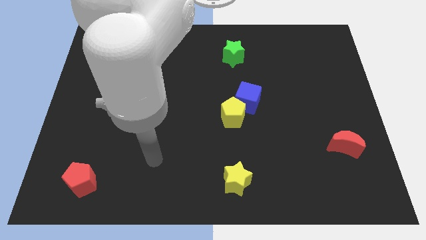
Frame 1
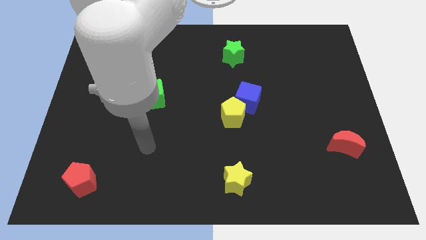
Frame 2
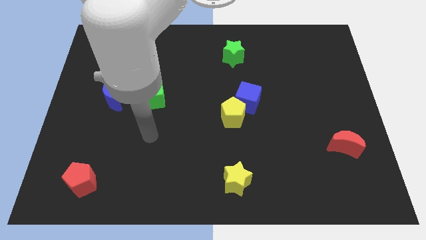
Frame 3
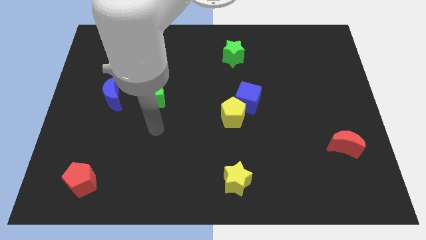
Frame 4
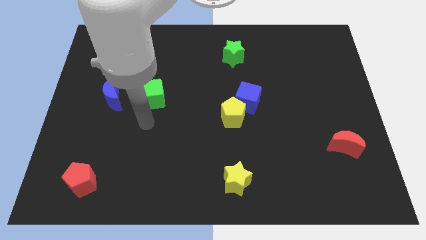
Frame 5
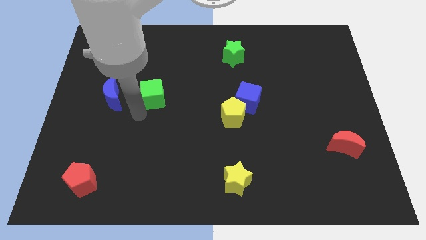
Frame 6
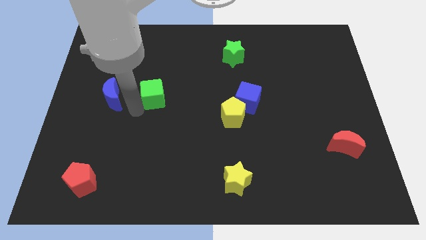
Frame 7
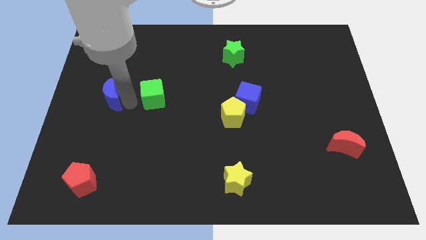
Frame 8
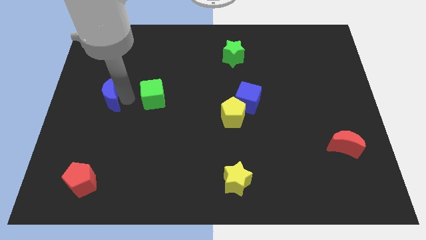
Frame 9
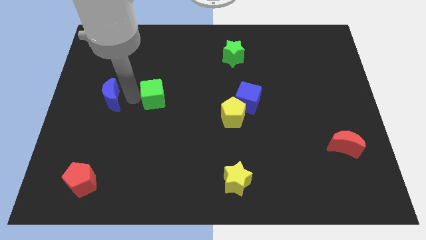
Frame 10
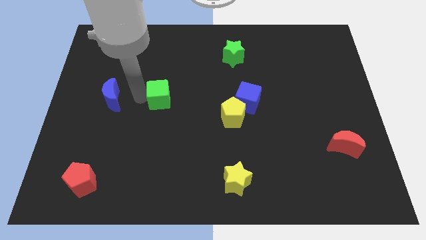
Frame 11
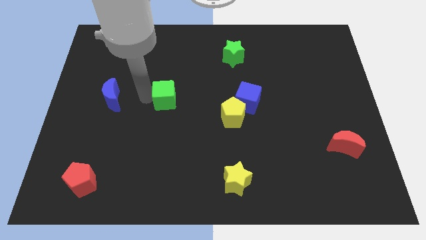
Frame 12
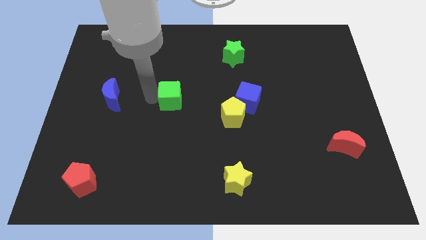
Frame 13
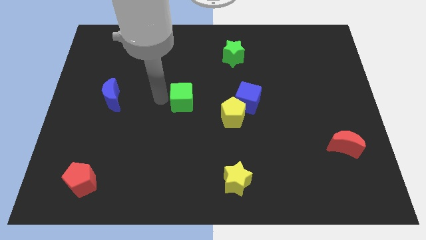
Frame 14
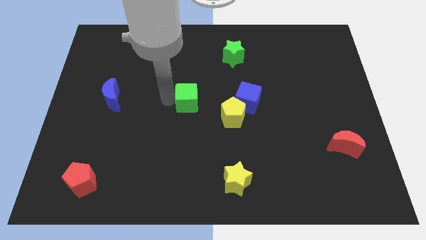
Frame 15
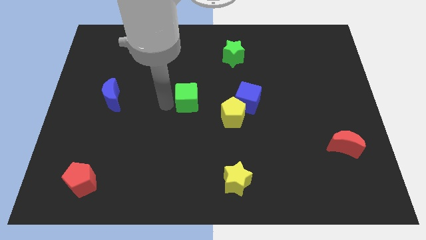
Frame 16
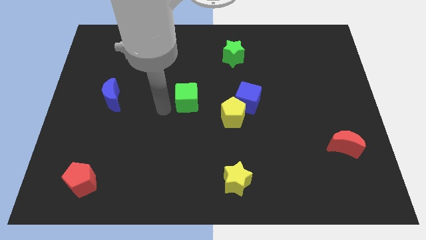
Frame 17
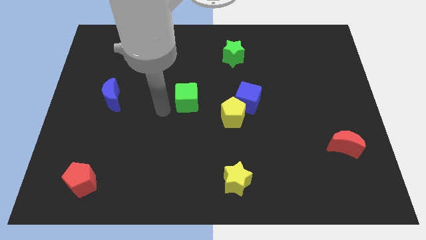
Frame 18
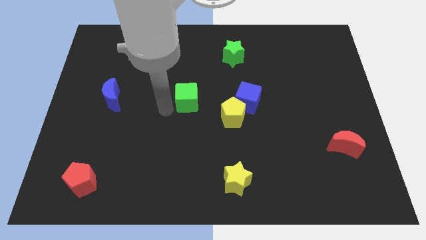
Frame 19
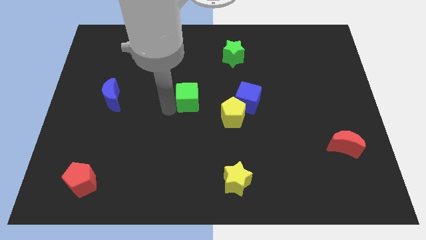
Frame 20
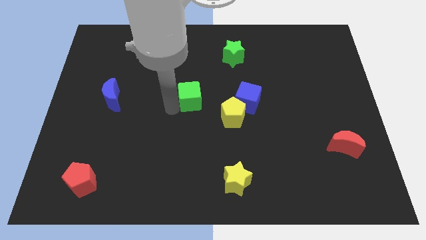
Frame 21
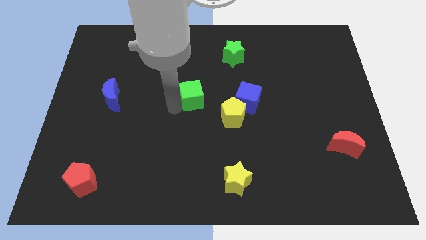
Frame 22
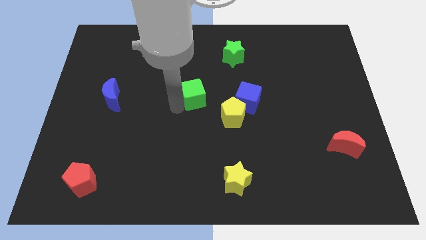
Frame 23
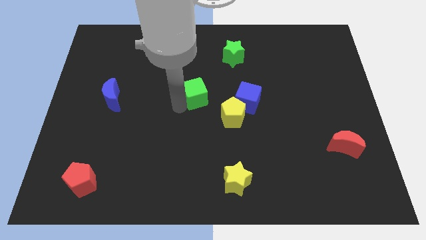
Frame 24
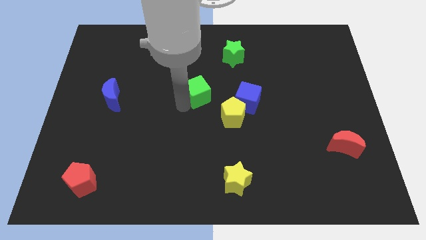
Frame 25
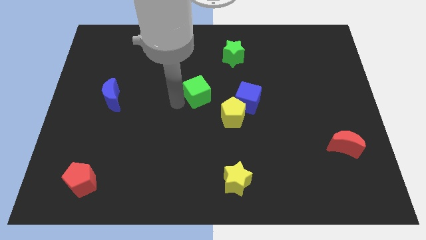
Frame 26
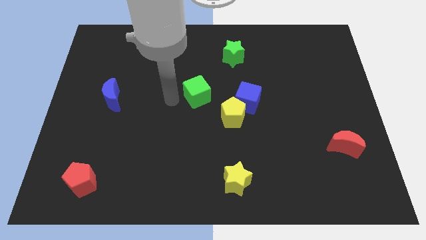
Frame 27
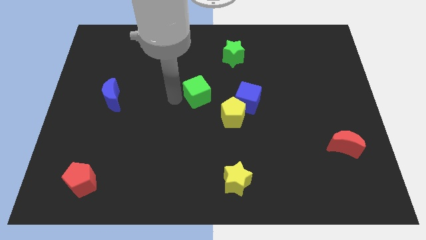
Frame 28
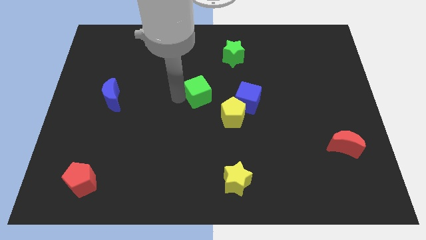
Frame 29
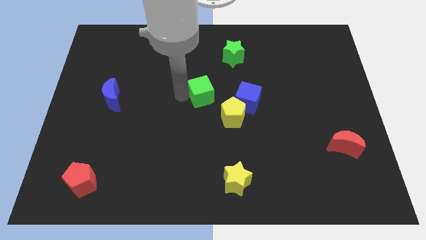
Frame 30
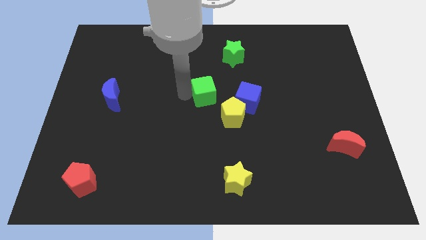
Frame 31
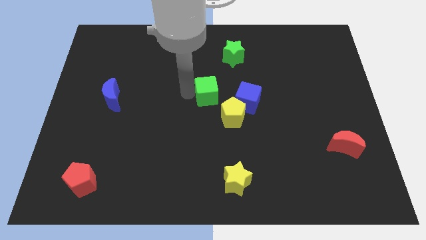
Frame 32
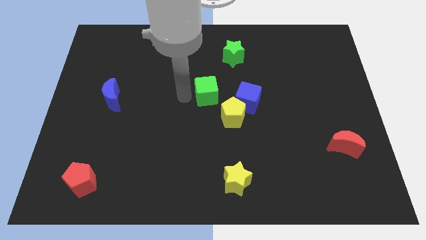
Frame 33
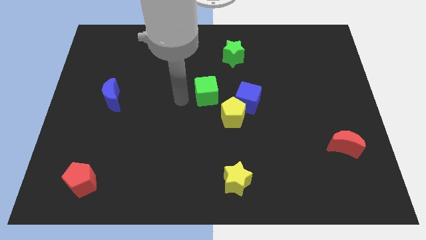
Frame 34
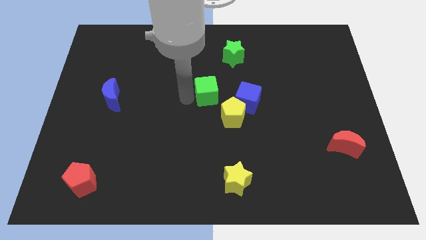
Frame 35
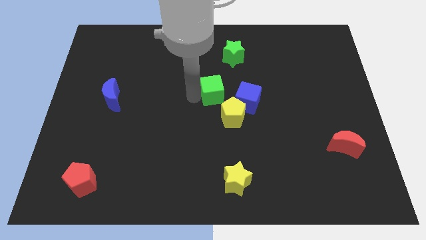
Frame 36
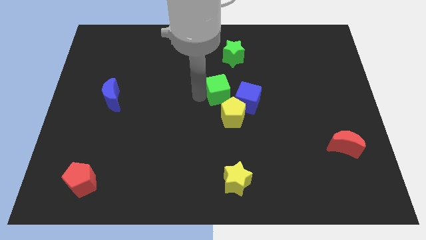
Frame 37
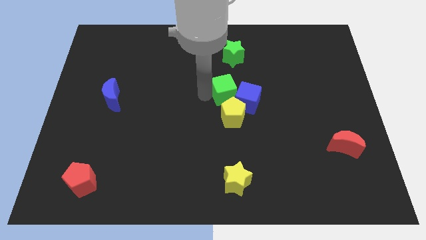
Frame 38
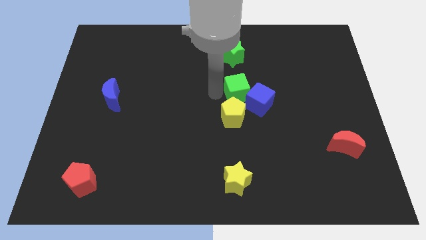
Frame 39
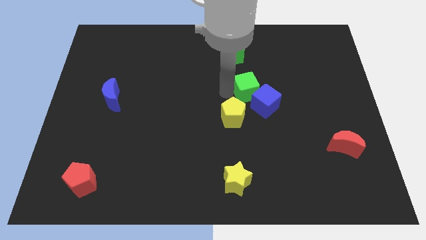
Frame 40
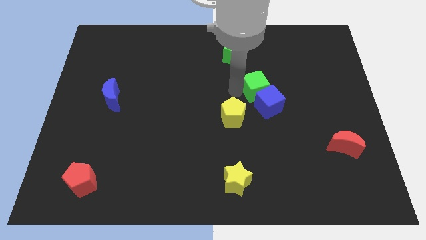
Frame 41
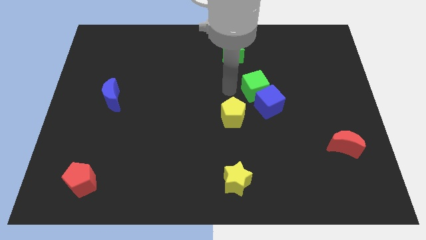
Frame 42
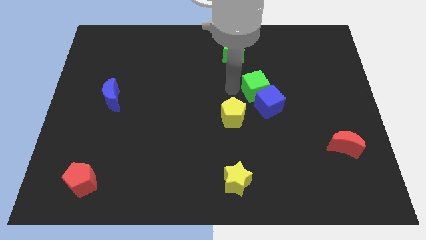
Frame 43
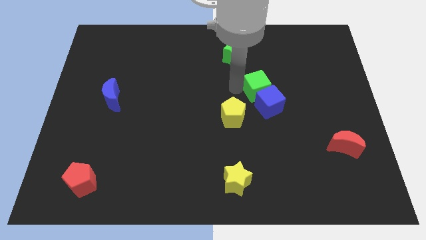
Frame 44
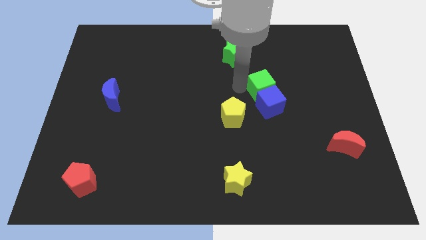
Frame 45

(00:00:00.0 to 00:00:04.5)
move the green cube diagonally up and to the right of the blue cube

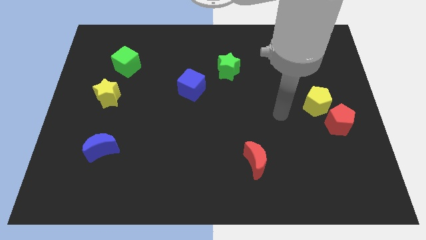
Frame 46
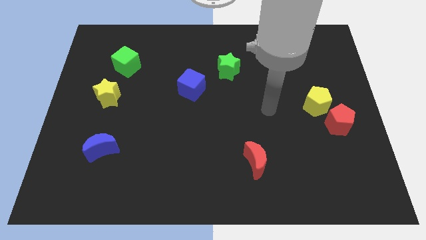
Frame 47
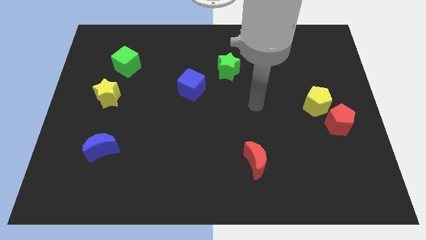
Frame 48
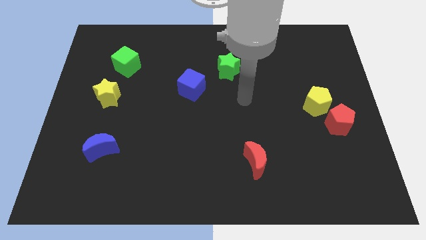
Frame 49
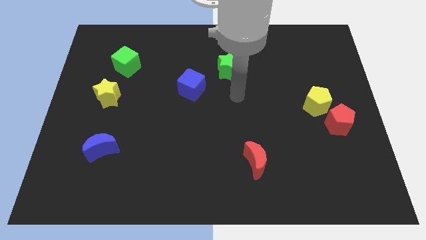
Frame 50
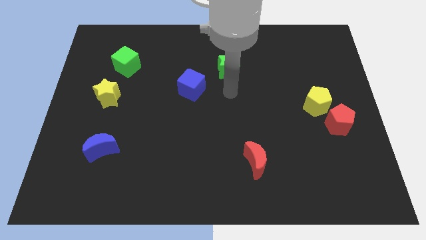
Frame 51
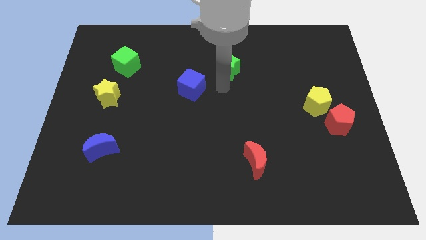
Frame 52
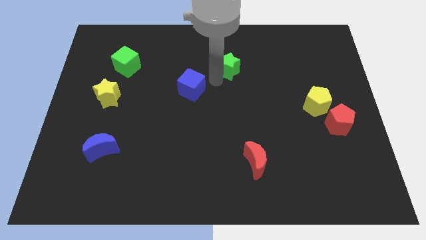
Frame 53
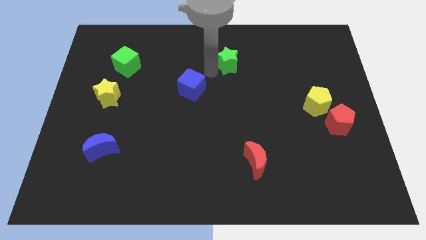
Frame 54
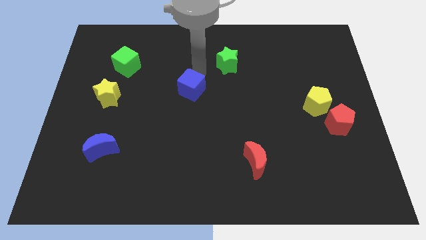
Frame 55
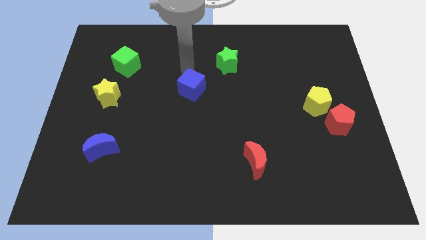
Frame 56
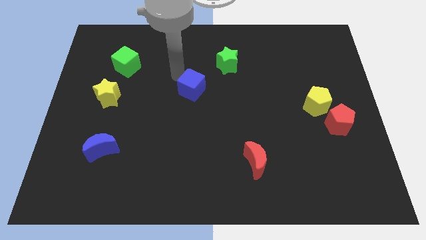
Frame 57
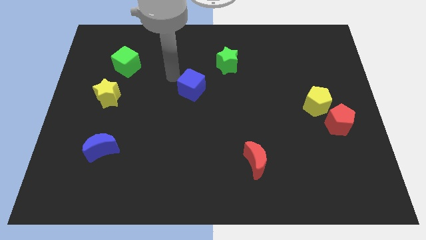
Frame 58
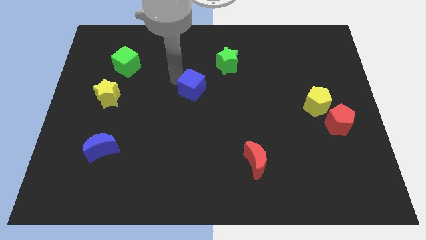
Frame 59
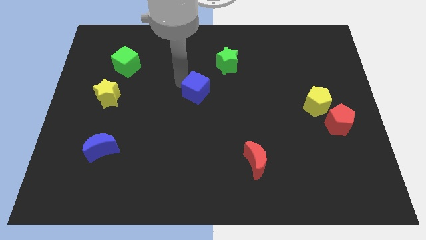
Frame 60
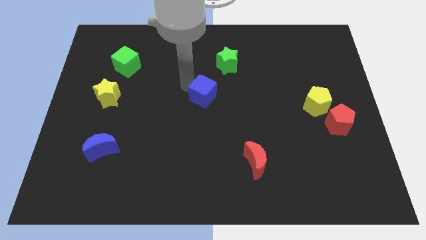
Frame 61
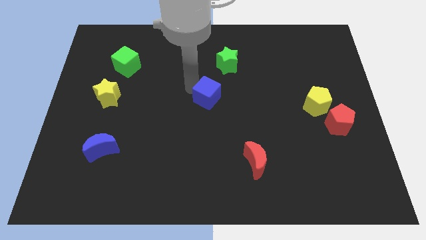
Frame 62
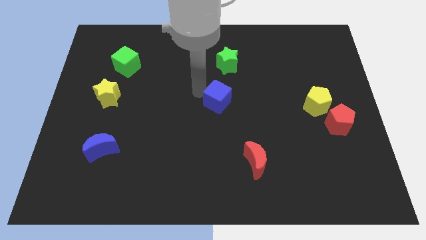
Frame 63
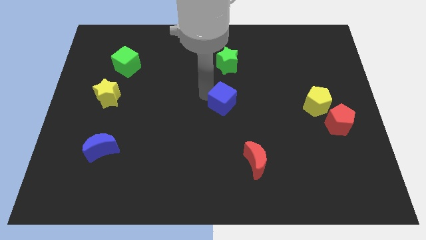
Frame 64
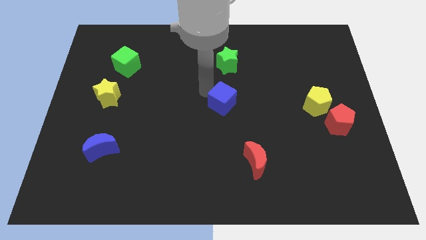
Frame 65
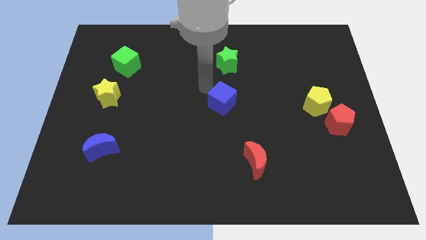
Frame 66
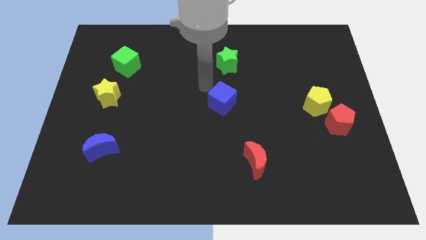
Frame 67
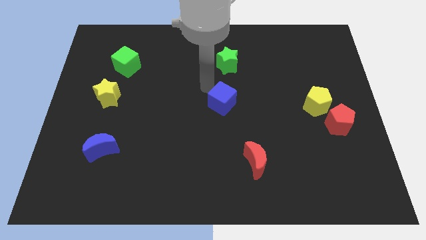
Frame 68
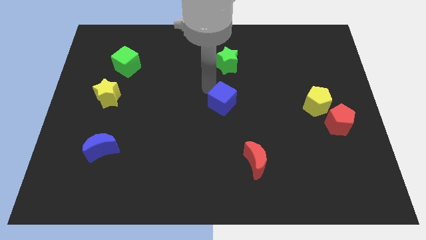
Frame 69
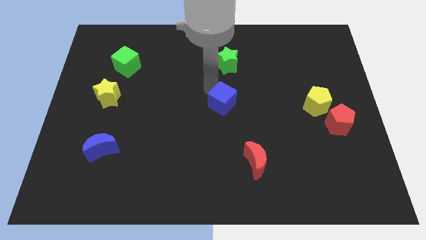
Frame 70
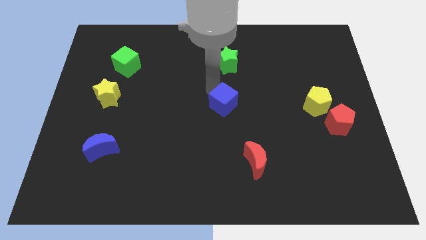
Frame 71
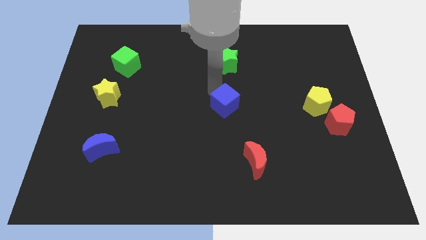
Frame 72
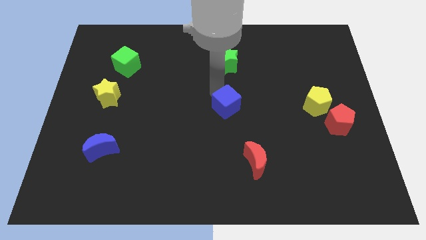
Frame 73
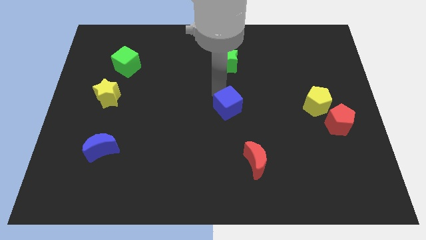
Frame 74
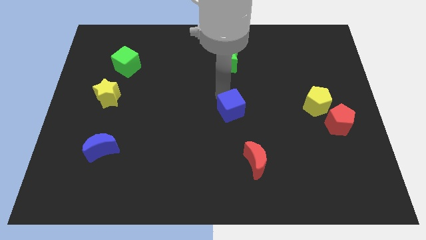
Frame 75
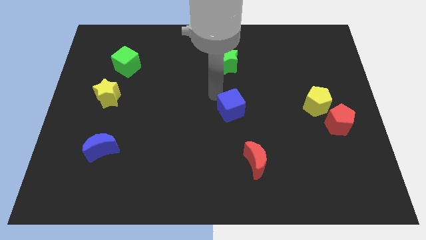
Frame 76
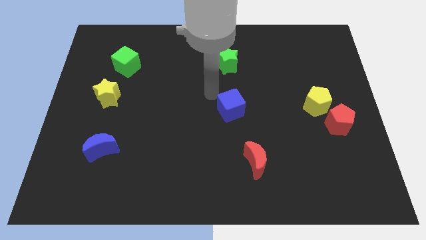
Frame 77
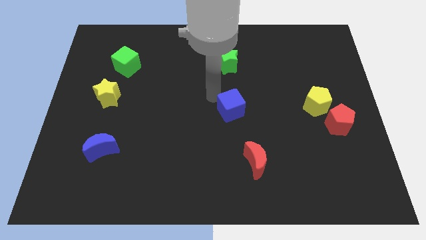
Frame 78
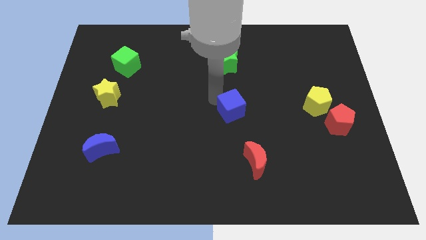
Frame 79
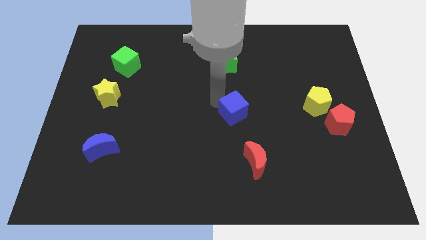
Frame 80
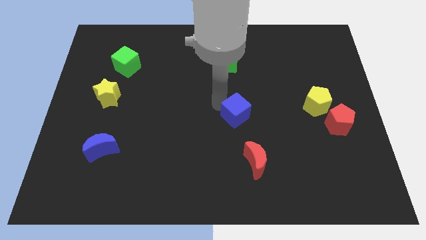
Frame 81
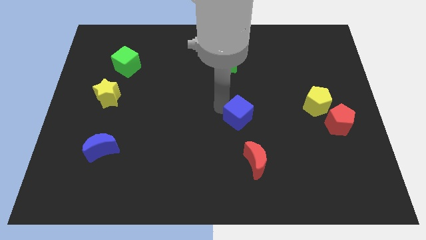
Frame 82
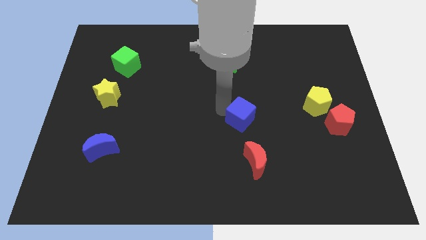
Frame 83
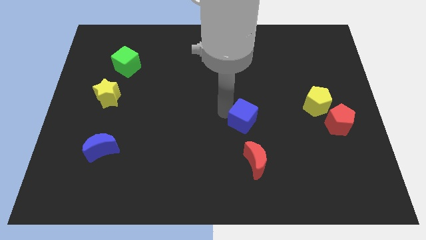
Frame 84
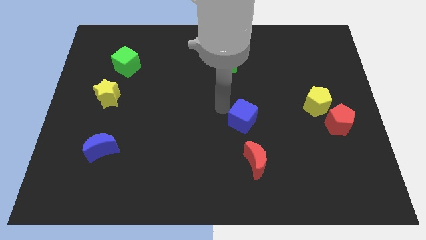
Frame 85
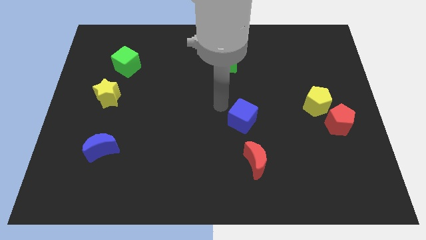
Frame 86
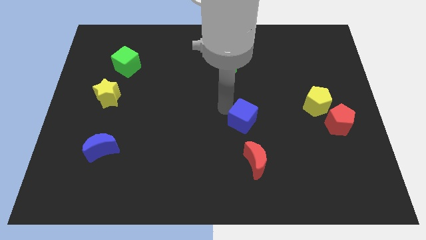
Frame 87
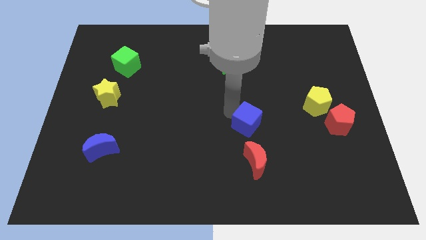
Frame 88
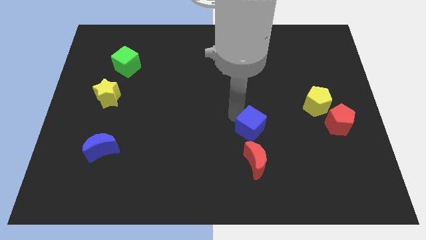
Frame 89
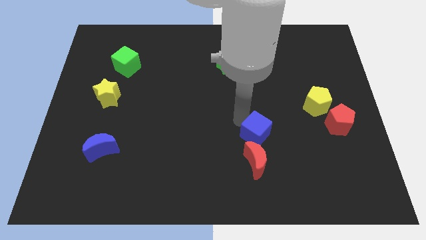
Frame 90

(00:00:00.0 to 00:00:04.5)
move the blue cube diagonally up and to the right of the red moon
